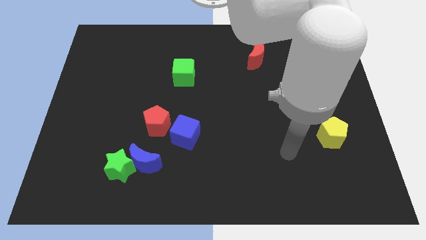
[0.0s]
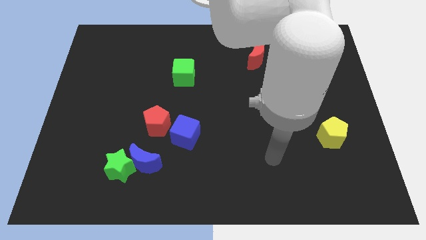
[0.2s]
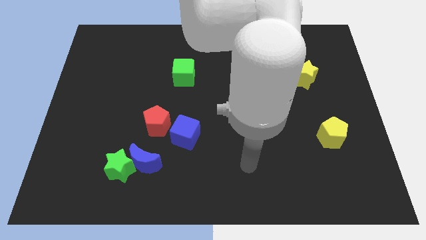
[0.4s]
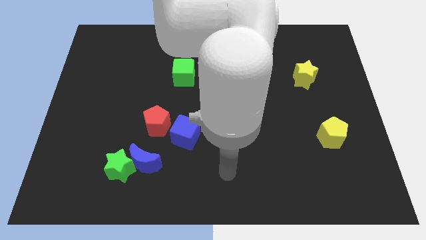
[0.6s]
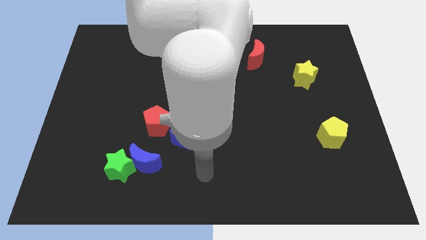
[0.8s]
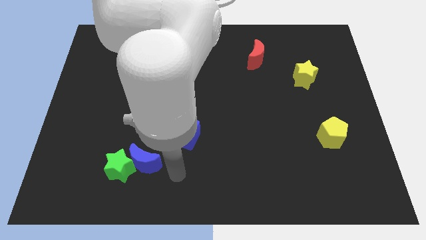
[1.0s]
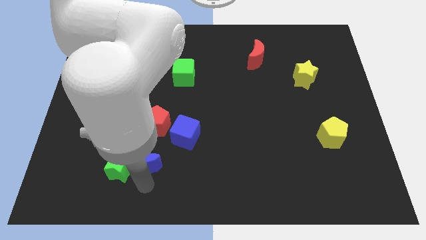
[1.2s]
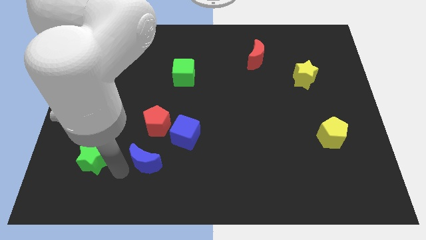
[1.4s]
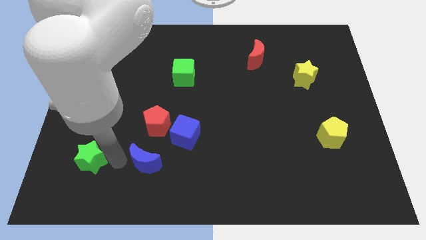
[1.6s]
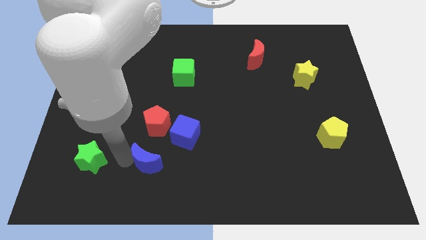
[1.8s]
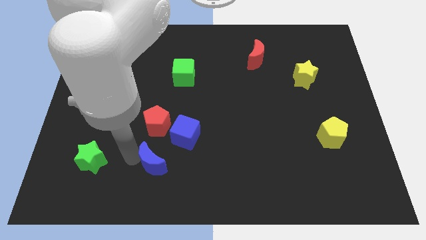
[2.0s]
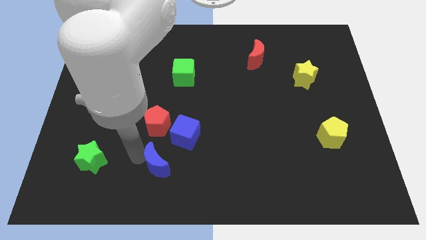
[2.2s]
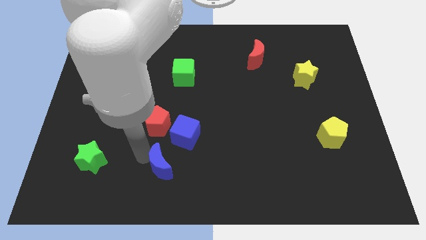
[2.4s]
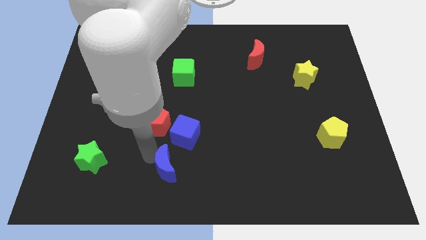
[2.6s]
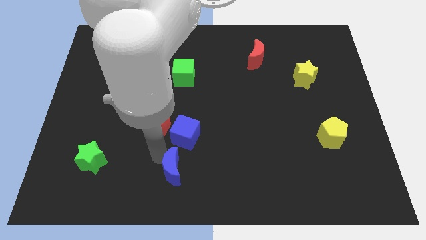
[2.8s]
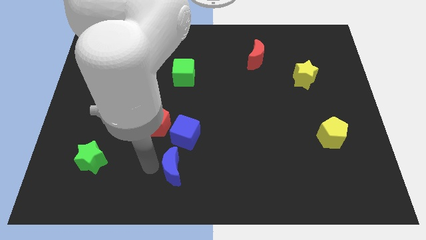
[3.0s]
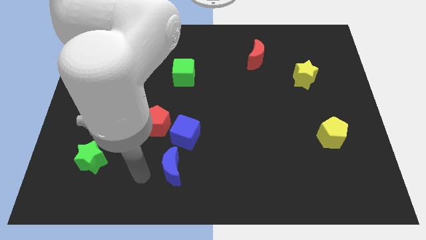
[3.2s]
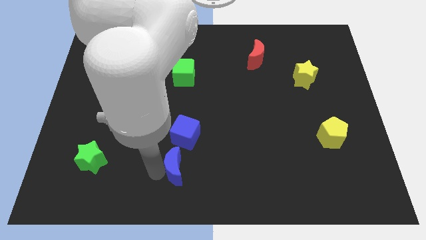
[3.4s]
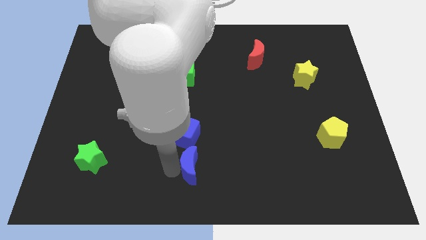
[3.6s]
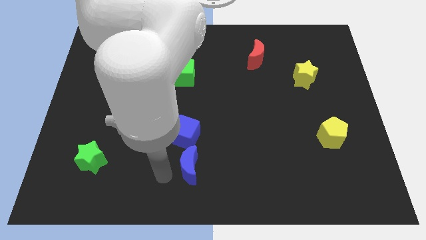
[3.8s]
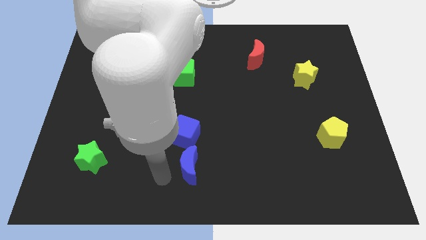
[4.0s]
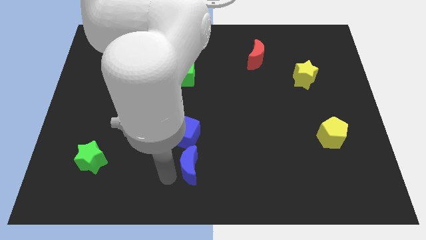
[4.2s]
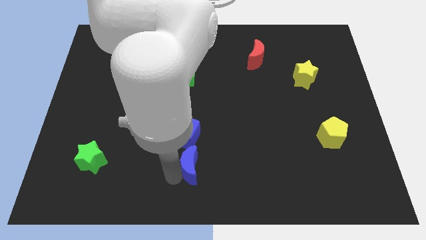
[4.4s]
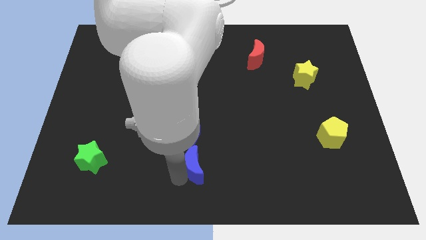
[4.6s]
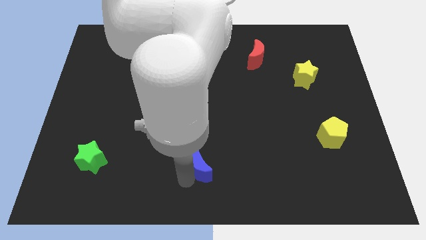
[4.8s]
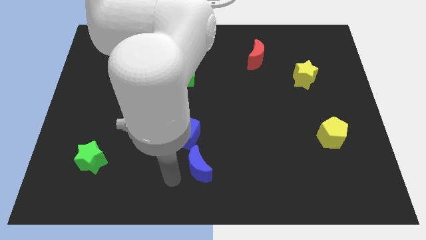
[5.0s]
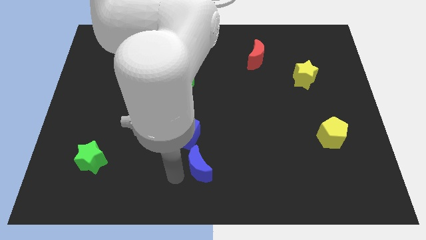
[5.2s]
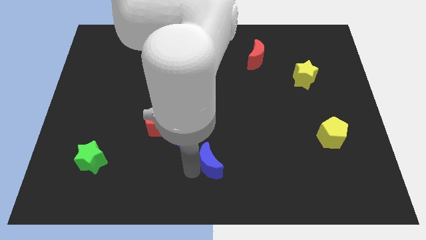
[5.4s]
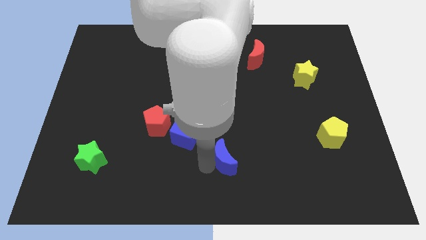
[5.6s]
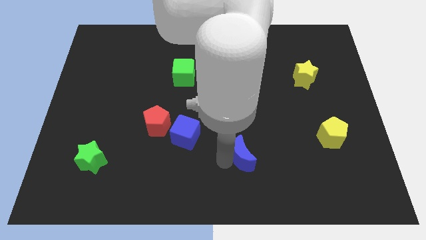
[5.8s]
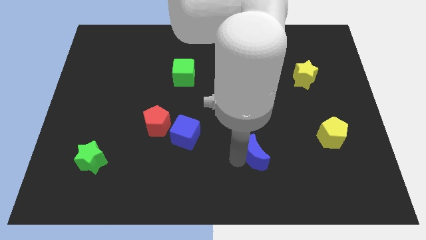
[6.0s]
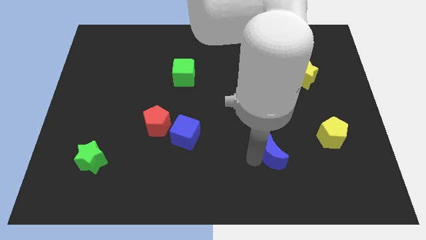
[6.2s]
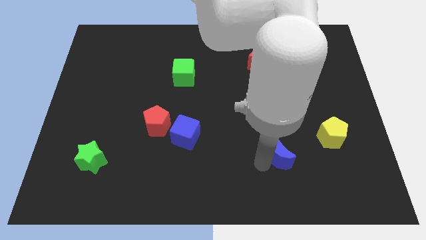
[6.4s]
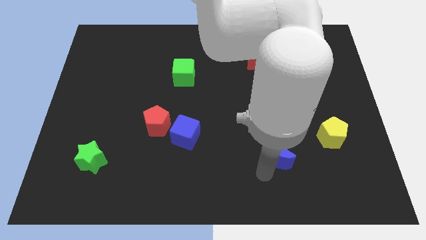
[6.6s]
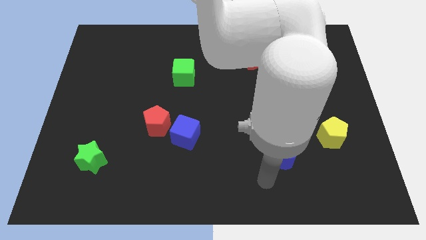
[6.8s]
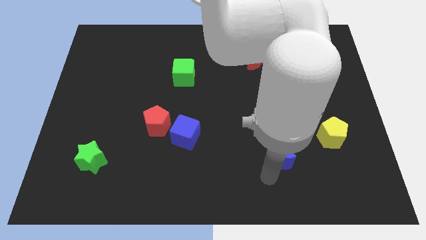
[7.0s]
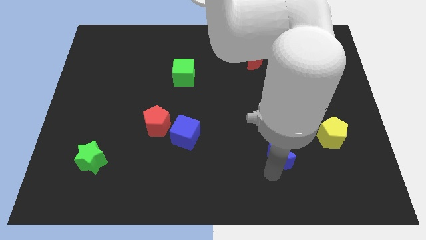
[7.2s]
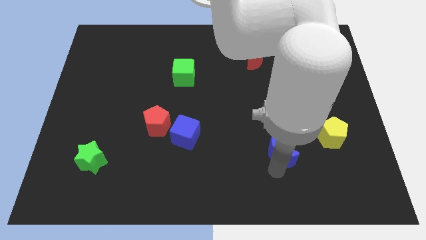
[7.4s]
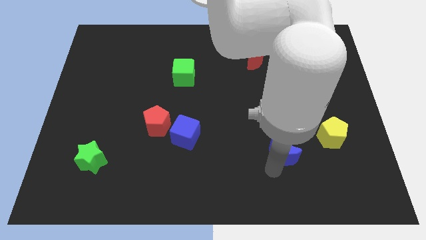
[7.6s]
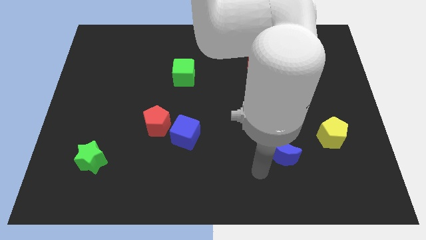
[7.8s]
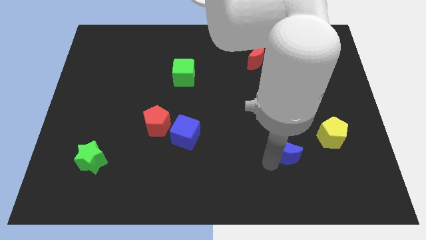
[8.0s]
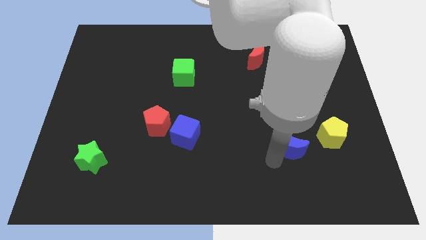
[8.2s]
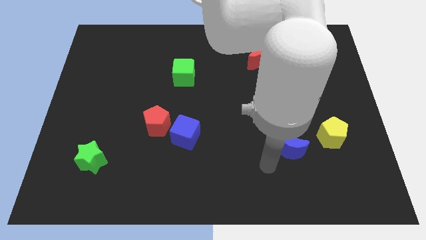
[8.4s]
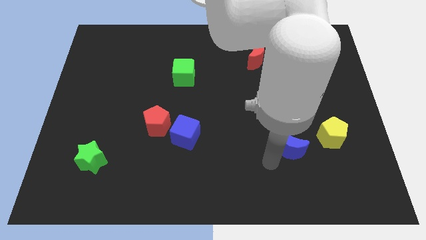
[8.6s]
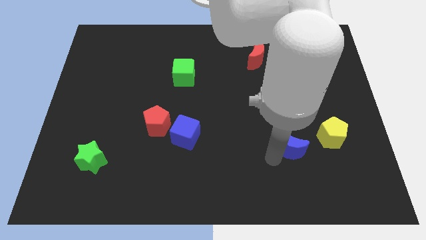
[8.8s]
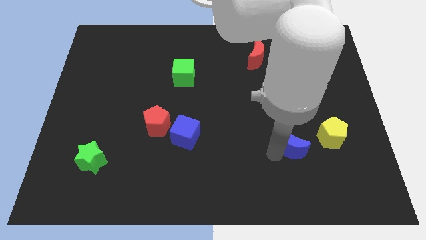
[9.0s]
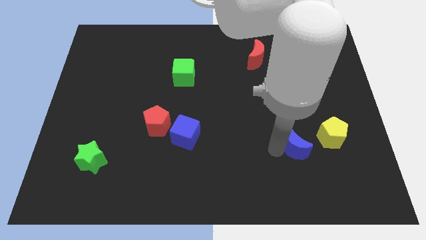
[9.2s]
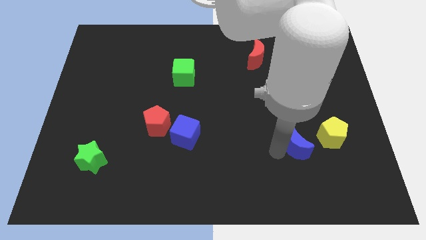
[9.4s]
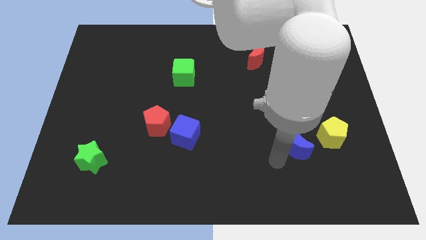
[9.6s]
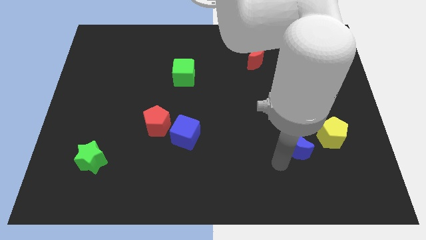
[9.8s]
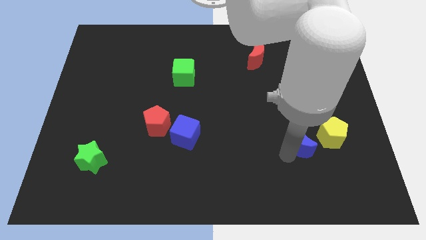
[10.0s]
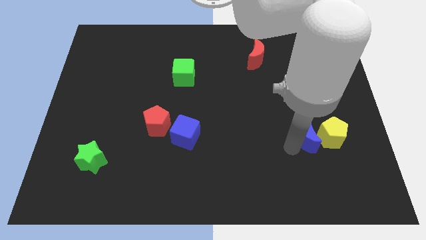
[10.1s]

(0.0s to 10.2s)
slide the blue moon close to the yellow pentagon

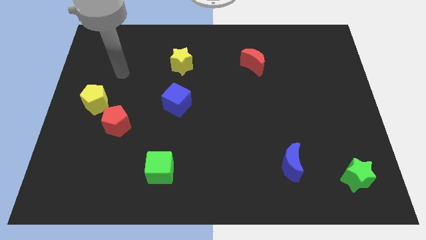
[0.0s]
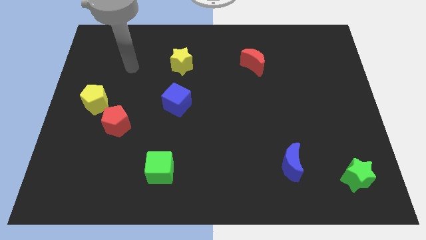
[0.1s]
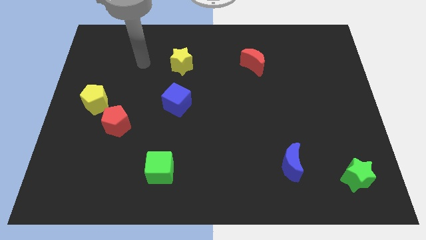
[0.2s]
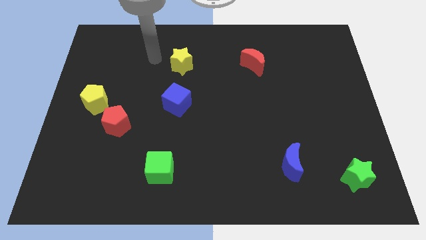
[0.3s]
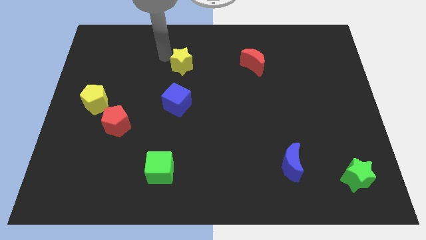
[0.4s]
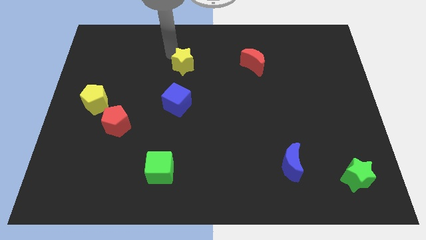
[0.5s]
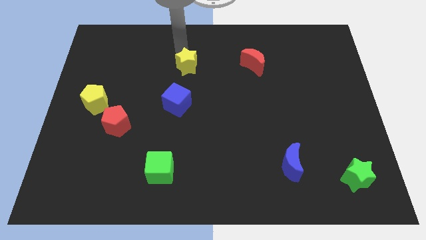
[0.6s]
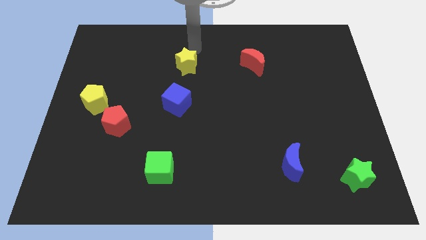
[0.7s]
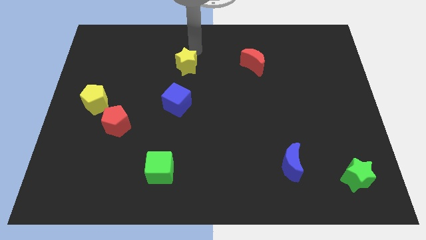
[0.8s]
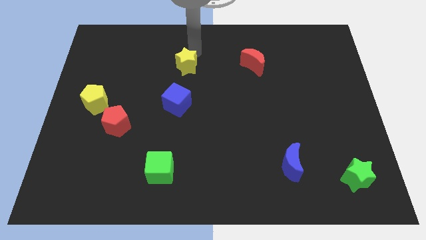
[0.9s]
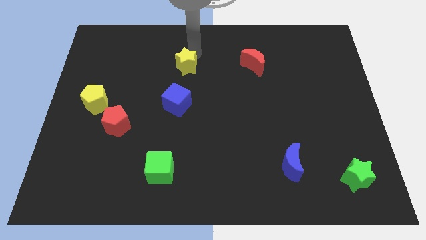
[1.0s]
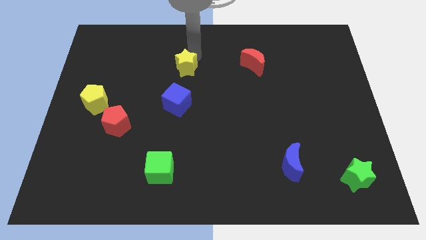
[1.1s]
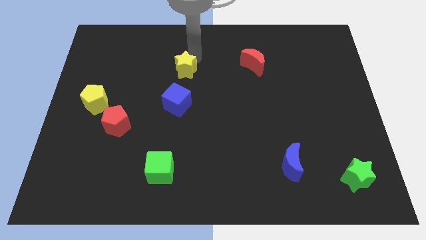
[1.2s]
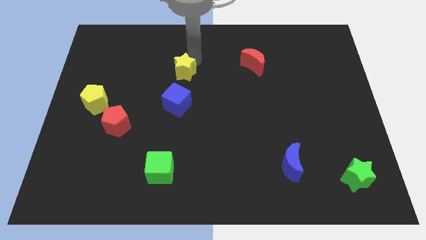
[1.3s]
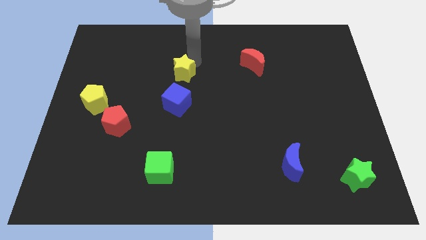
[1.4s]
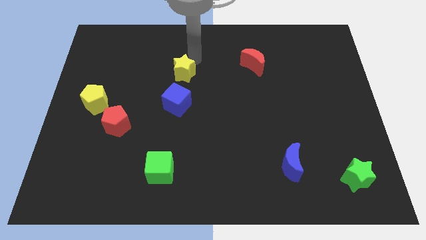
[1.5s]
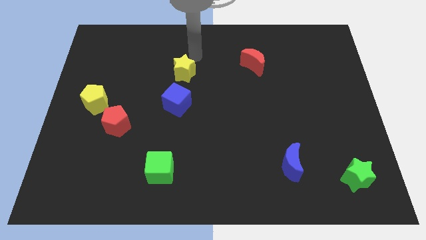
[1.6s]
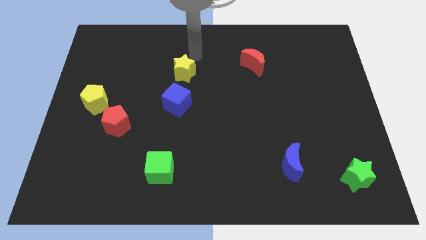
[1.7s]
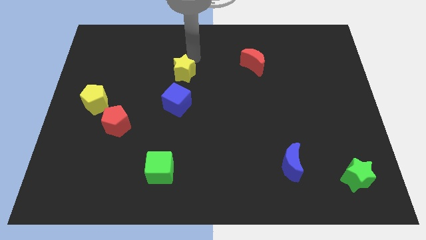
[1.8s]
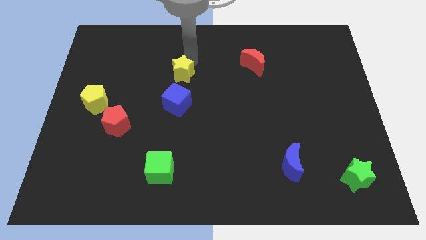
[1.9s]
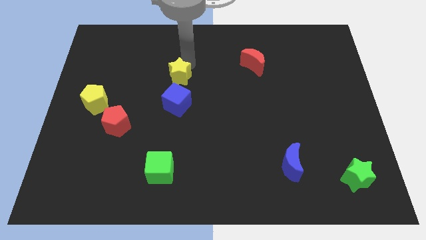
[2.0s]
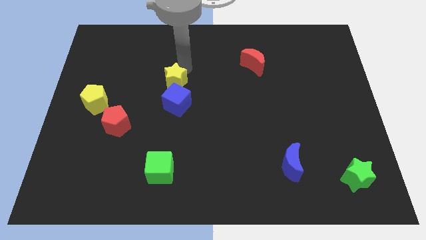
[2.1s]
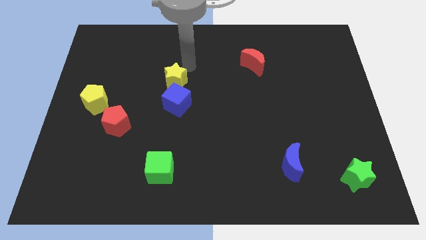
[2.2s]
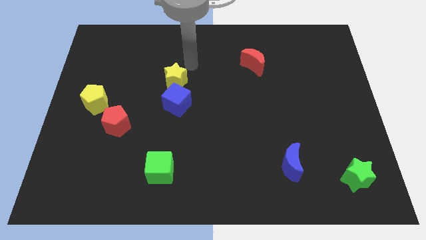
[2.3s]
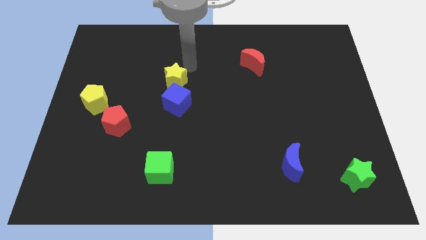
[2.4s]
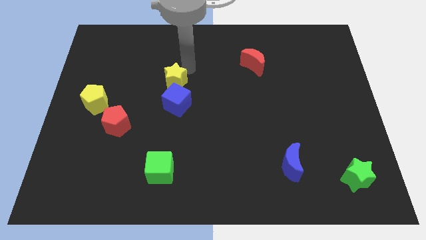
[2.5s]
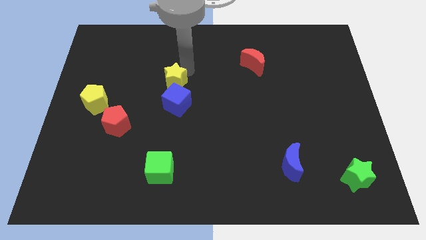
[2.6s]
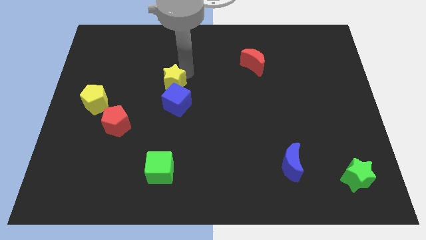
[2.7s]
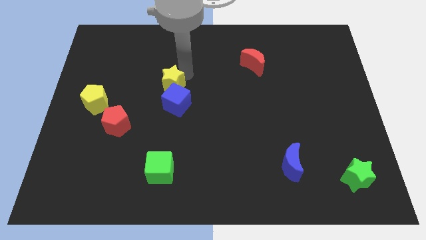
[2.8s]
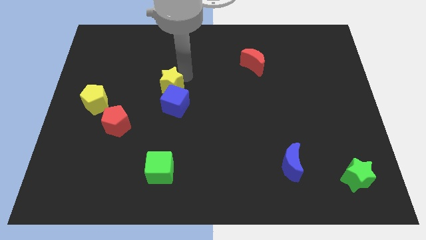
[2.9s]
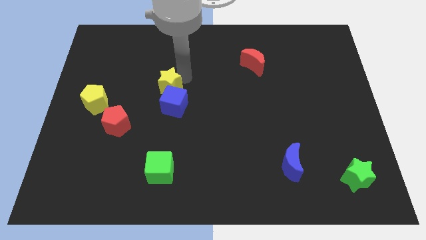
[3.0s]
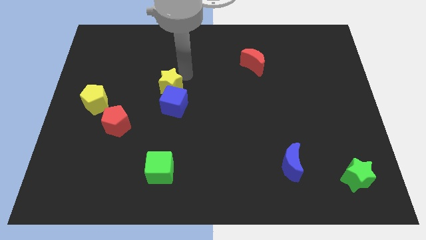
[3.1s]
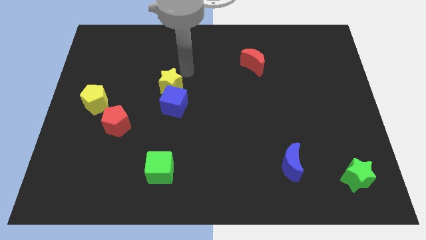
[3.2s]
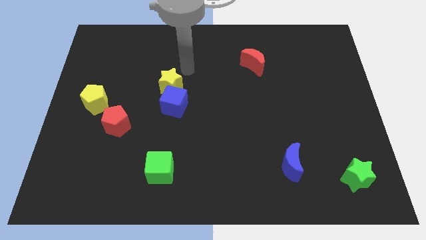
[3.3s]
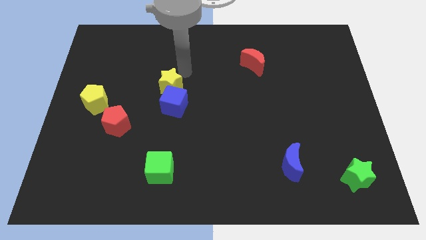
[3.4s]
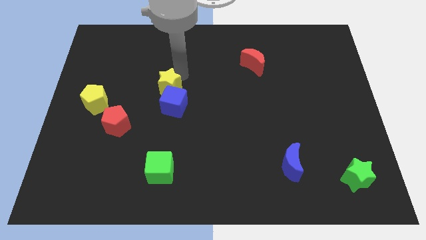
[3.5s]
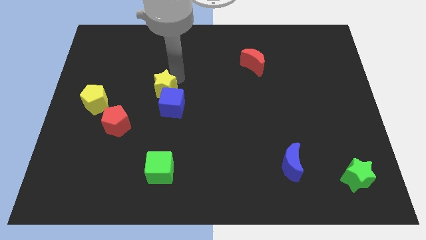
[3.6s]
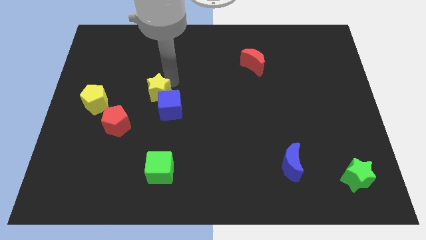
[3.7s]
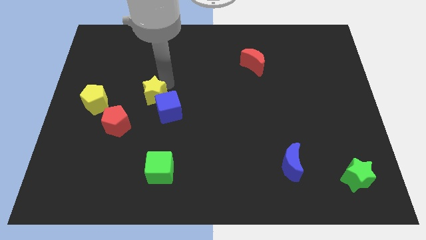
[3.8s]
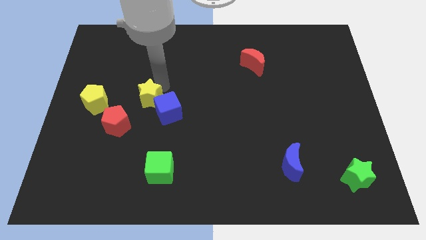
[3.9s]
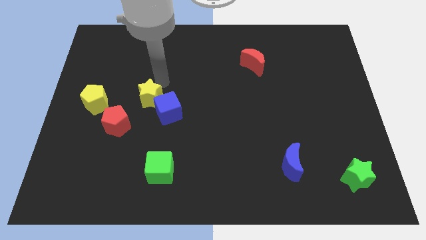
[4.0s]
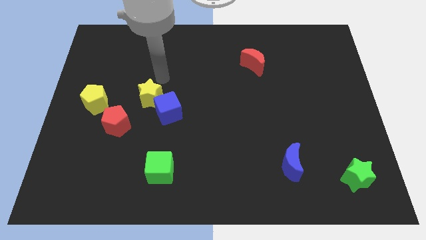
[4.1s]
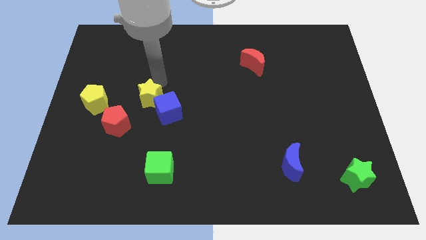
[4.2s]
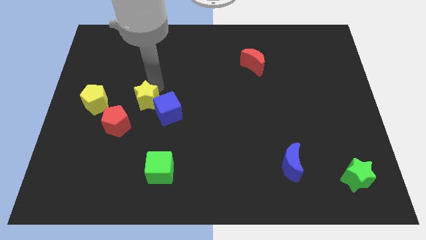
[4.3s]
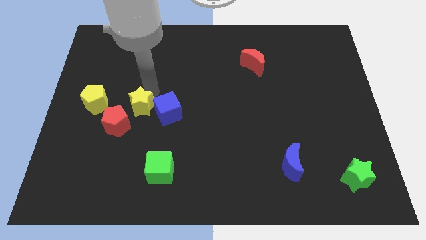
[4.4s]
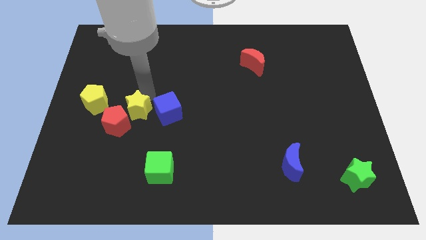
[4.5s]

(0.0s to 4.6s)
put the yellow star close to the red pentagon
